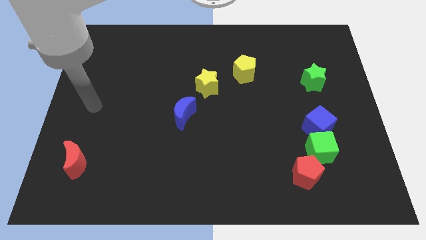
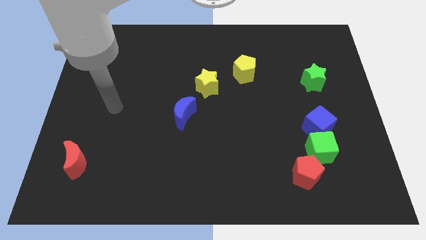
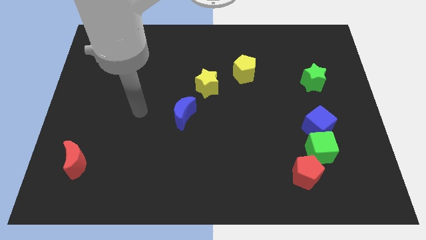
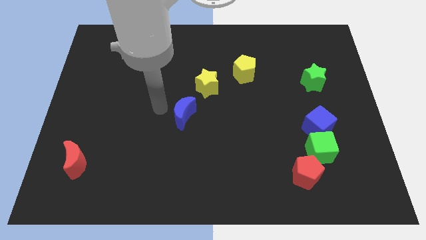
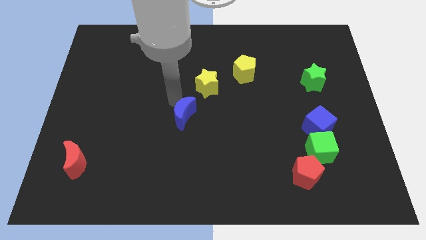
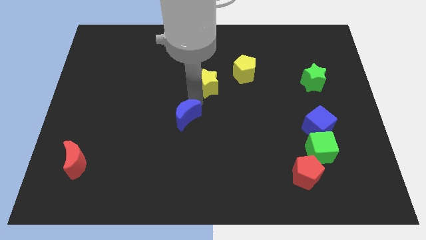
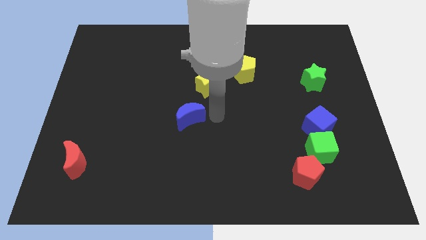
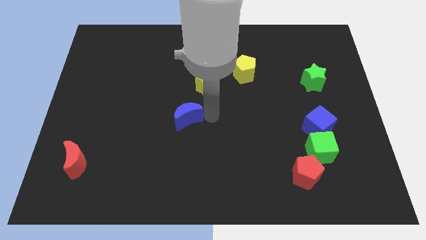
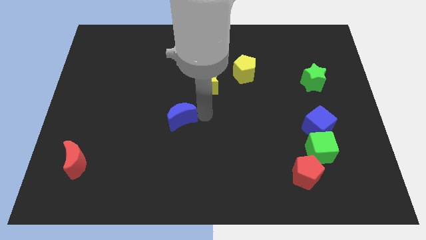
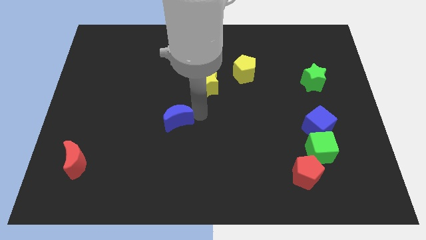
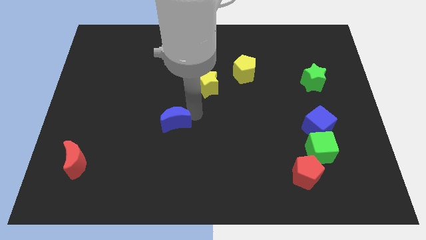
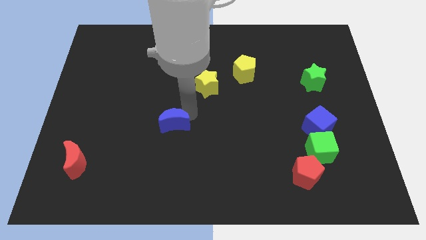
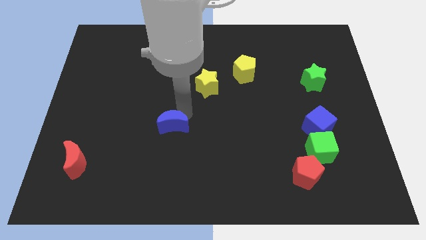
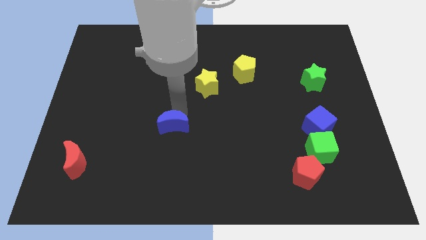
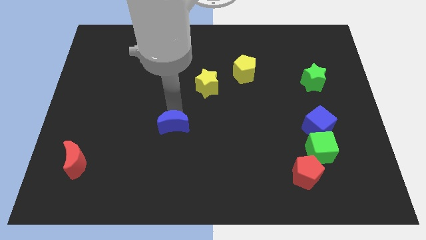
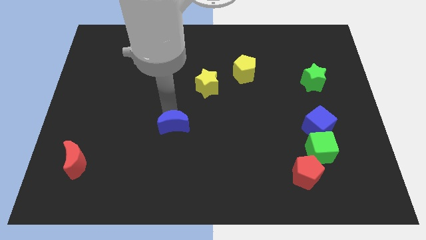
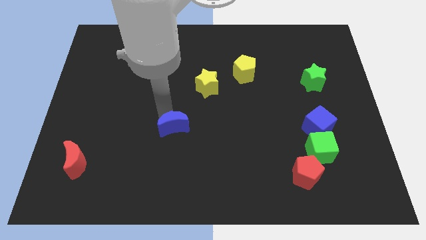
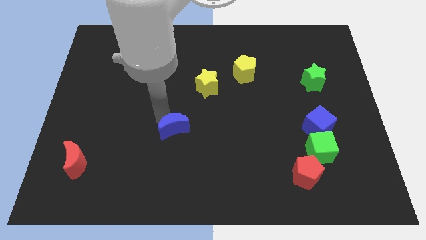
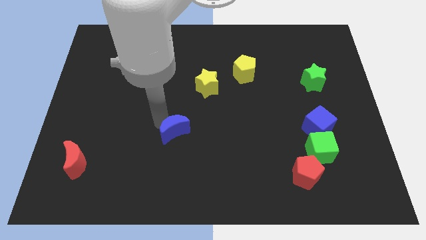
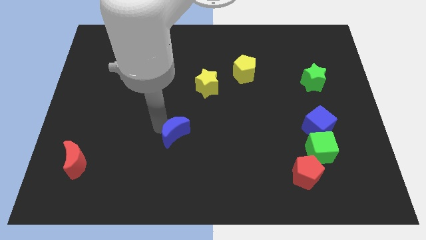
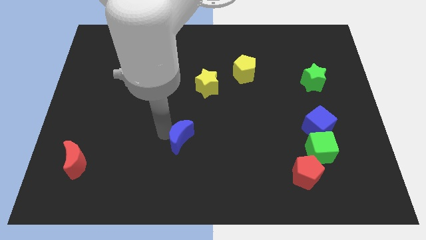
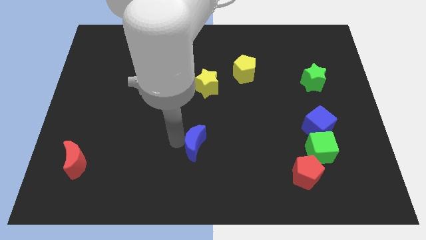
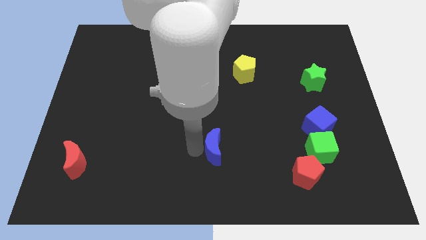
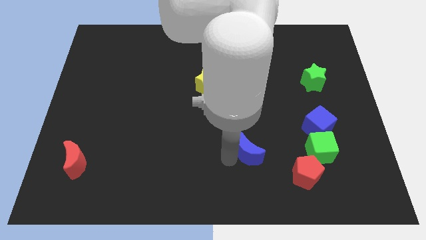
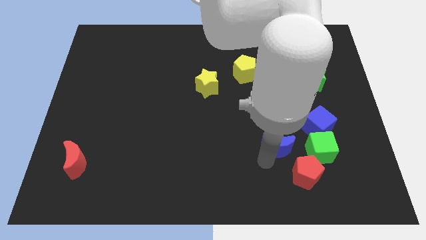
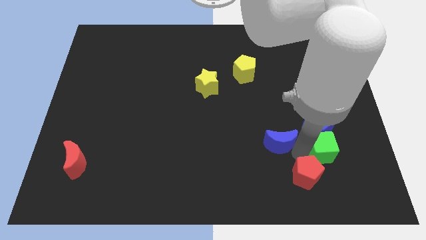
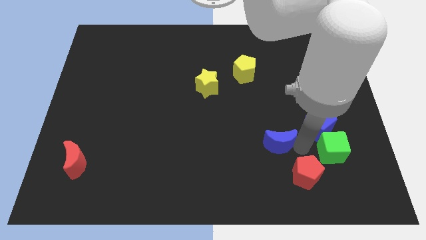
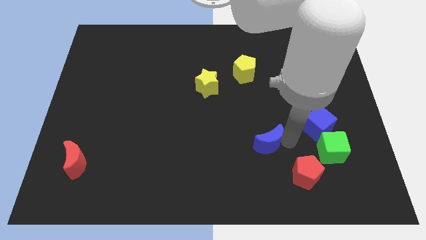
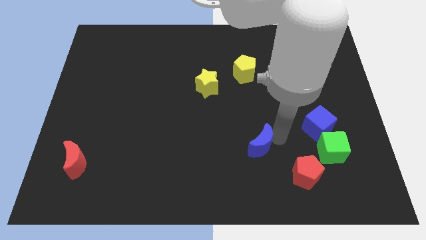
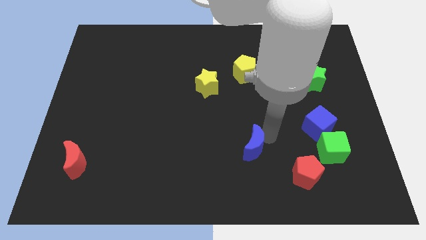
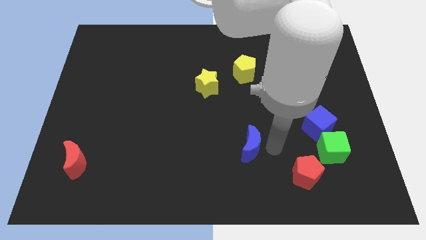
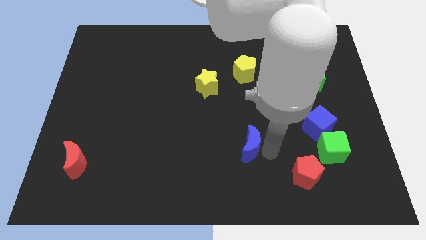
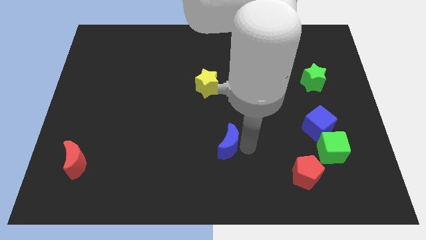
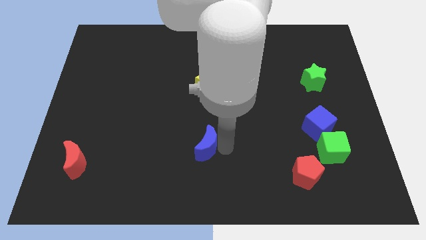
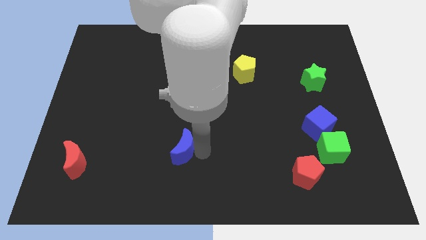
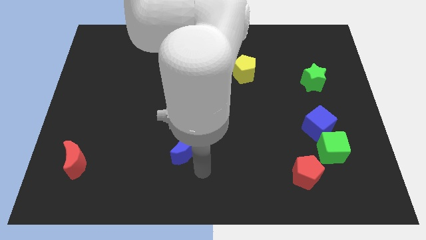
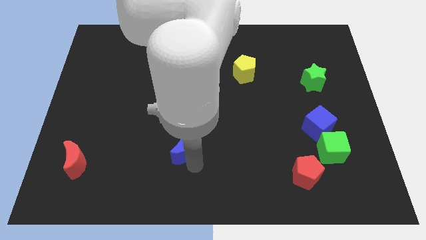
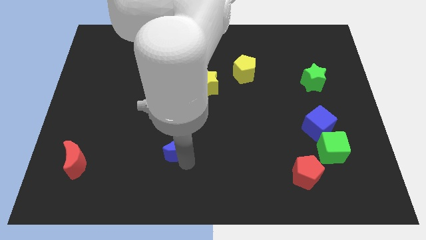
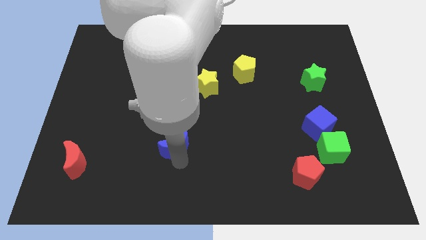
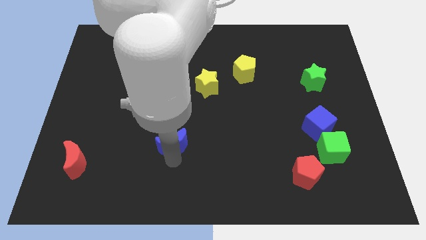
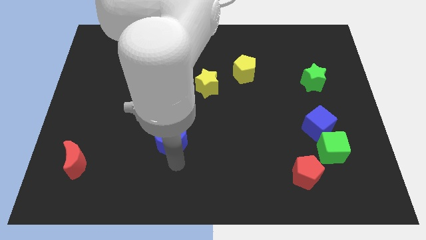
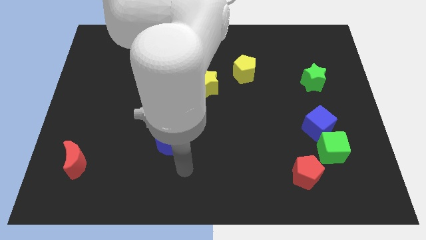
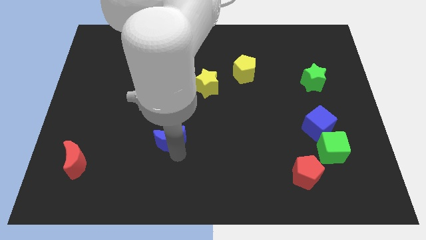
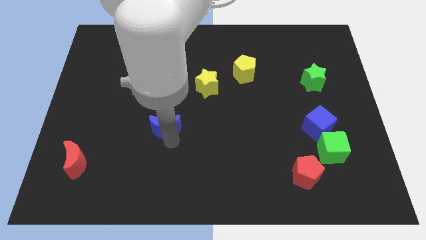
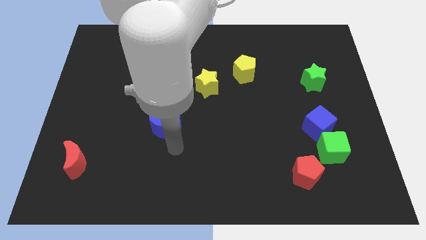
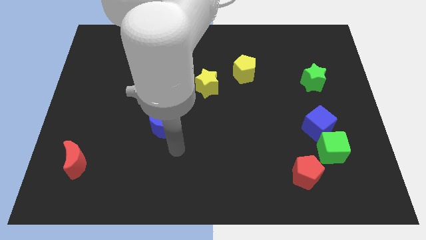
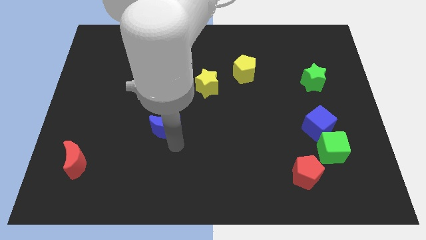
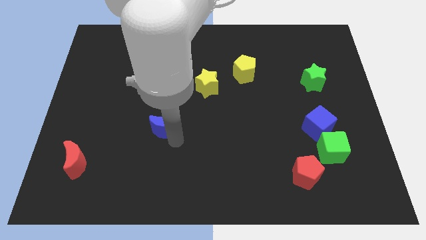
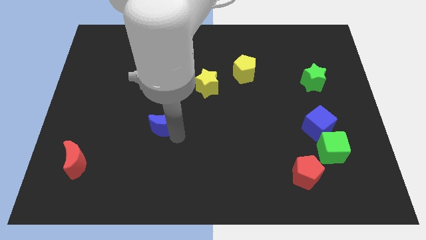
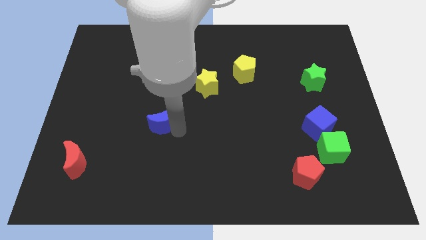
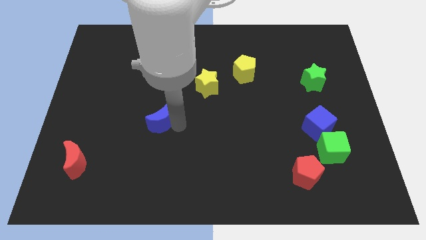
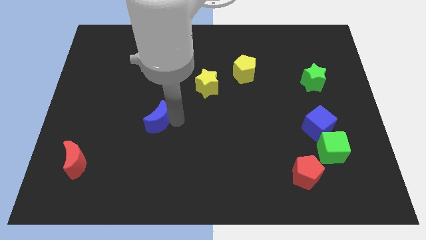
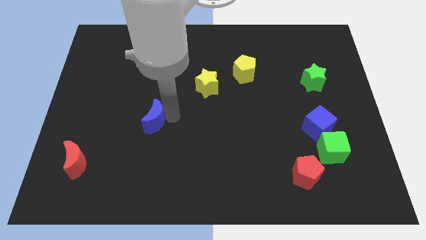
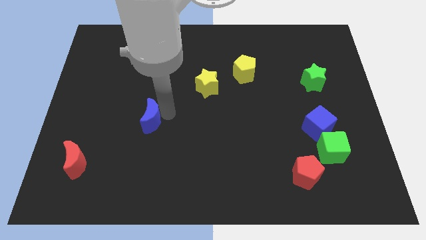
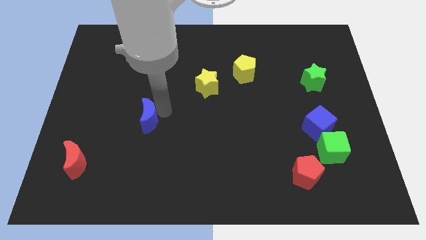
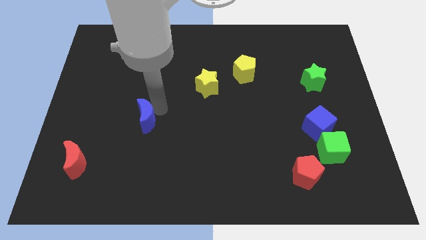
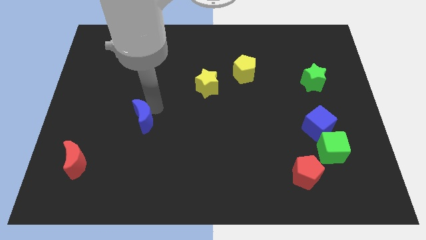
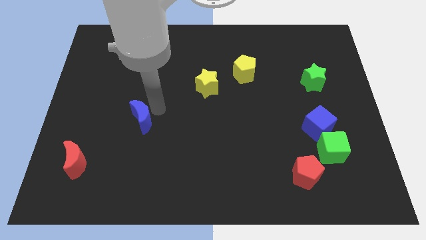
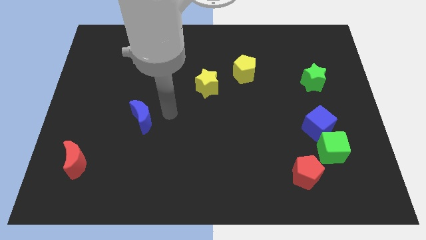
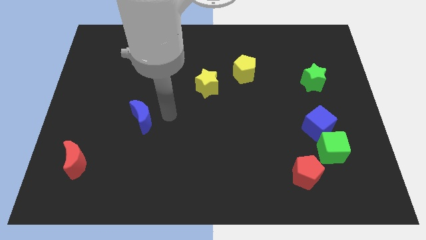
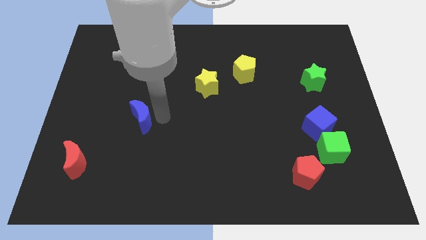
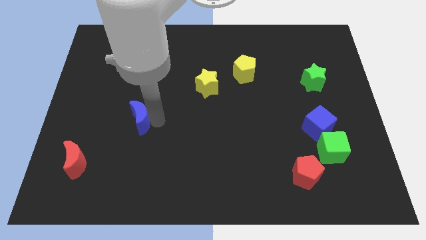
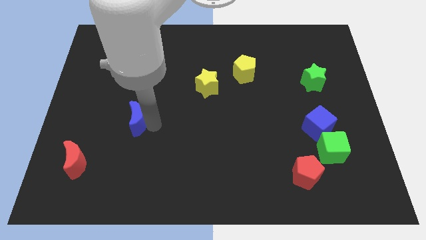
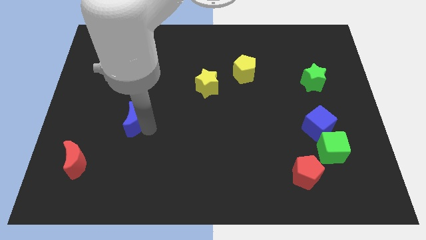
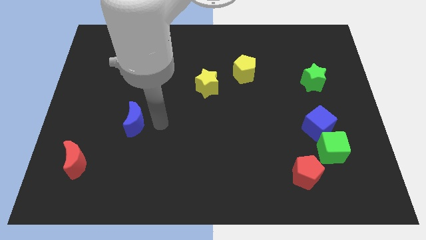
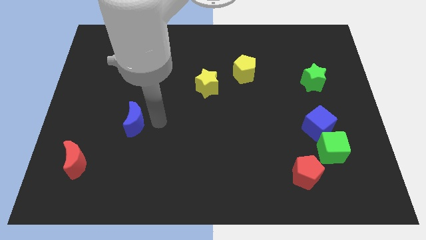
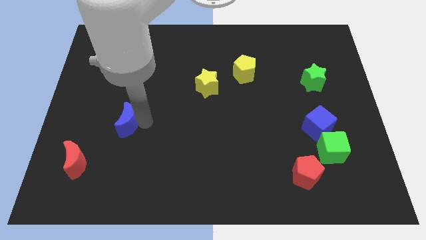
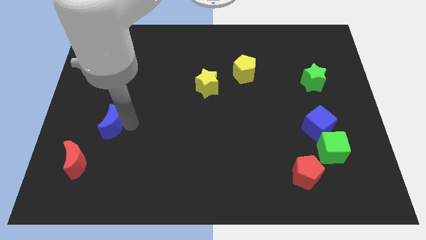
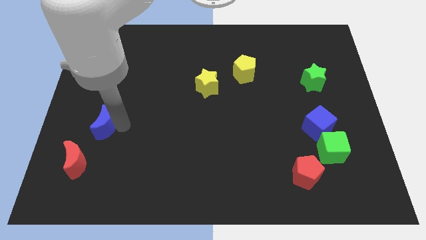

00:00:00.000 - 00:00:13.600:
push the blue moon to the top of the red moon

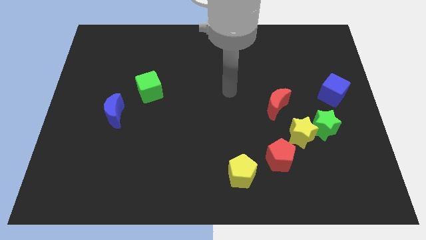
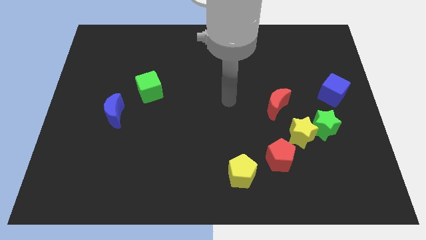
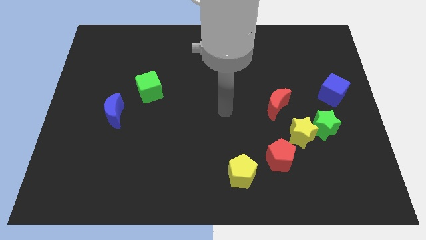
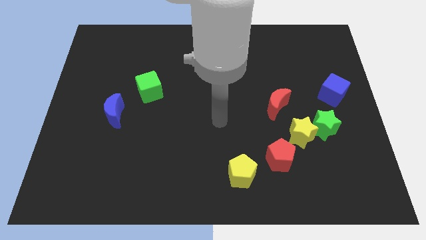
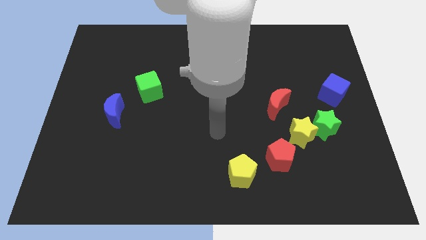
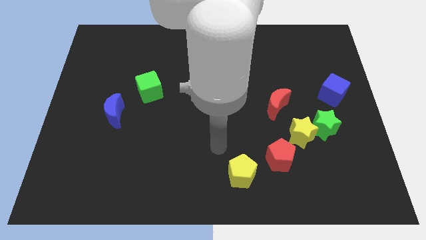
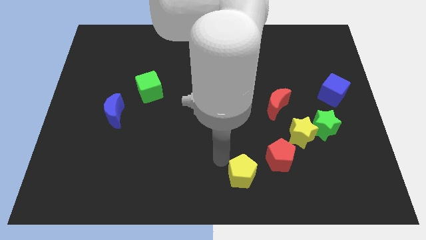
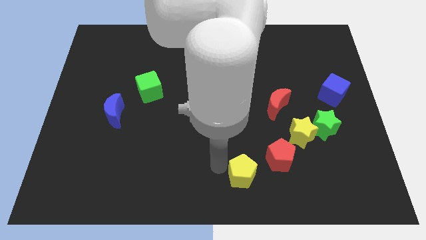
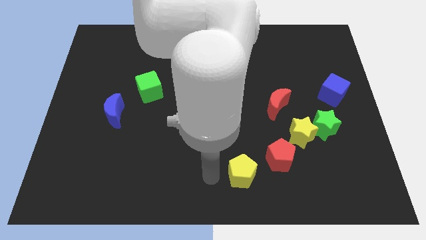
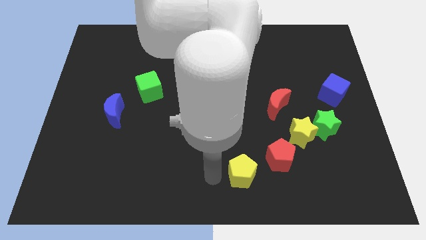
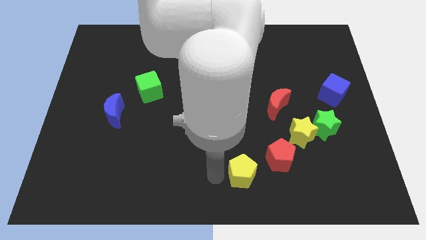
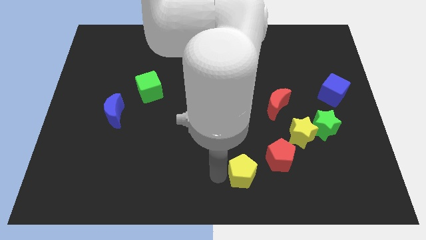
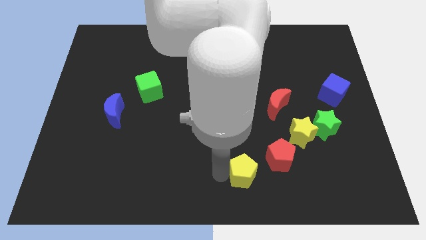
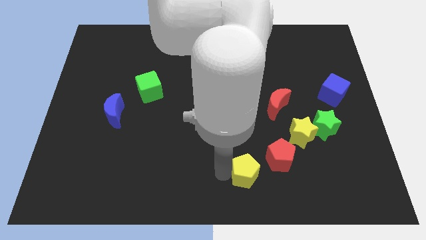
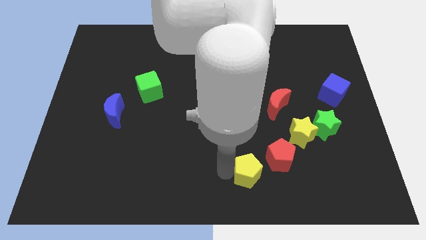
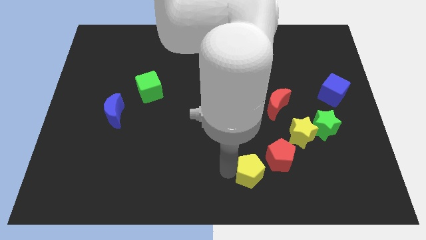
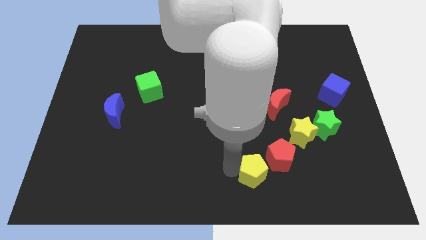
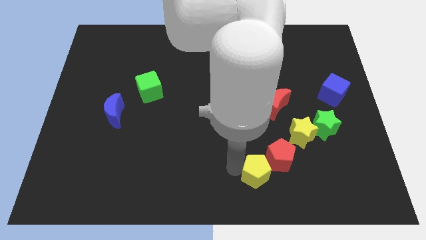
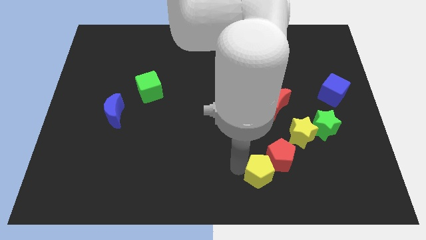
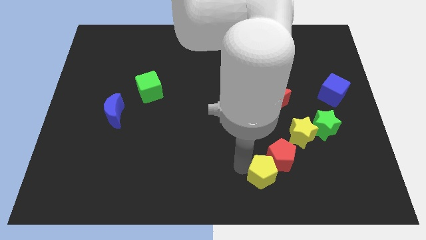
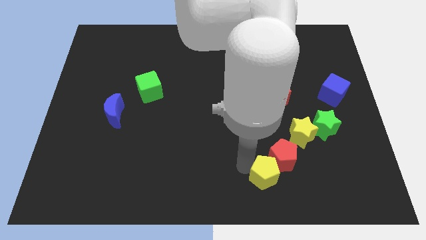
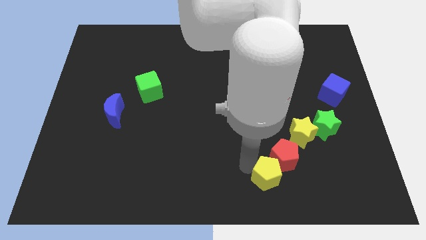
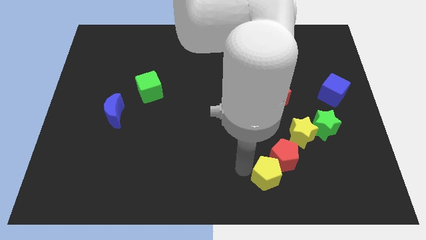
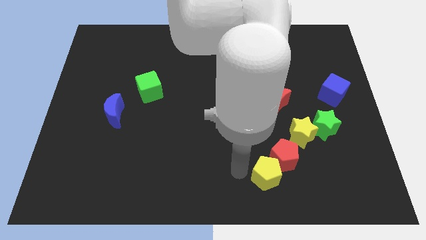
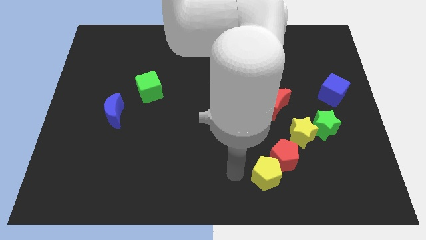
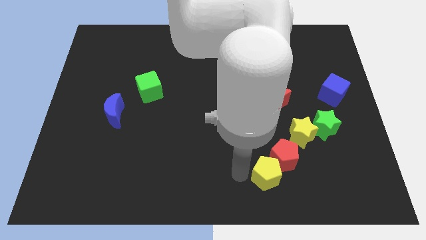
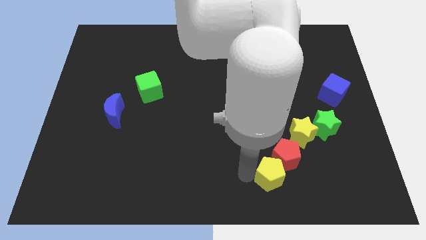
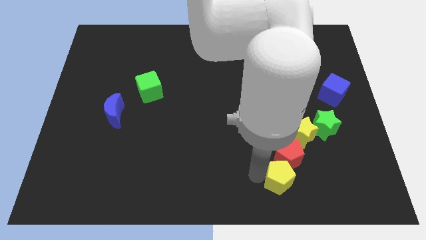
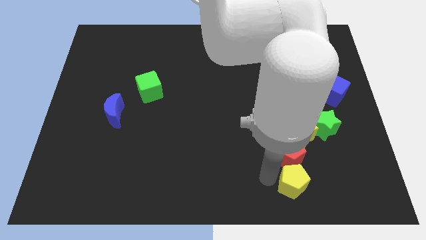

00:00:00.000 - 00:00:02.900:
slide the yellow pentagon diagonally down and to the right of the red pentagon
